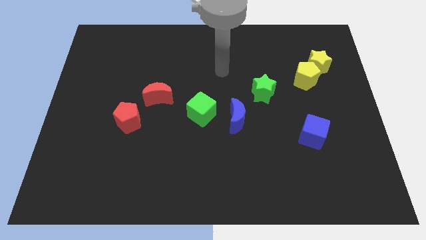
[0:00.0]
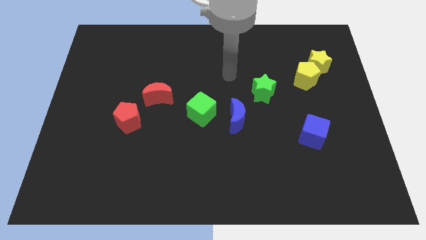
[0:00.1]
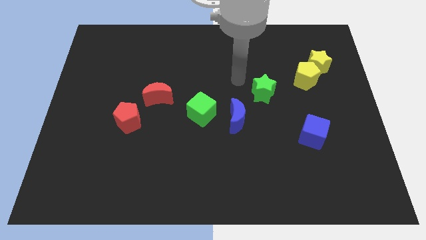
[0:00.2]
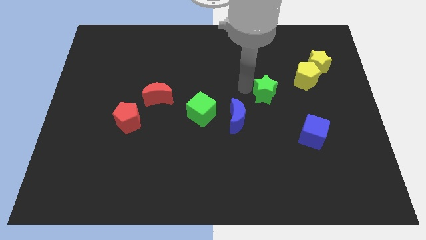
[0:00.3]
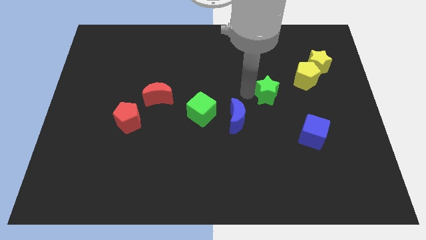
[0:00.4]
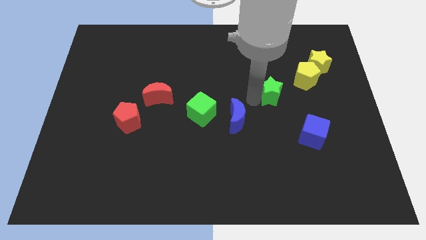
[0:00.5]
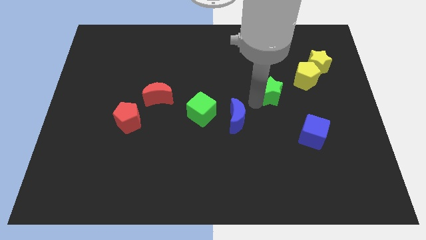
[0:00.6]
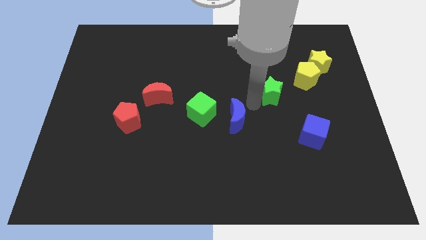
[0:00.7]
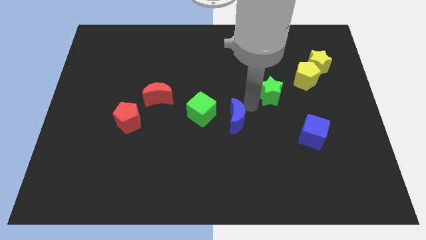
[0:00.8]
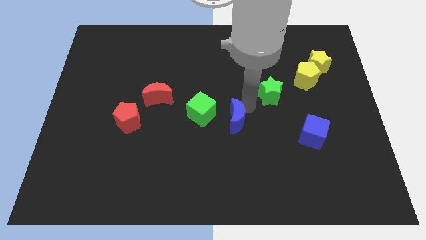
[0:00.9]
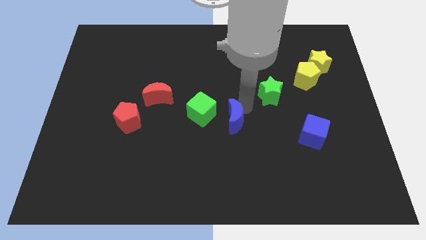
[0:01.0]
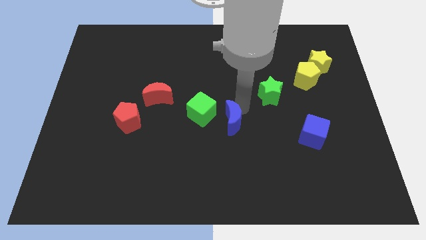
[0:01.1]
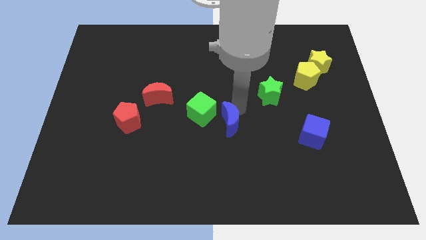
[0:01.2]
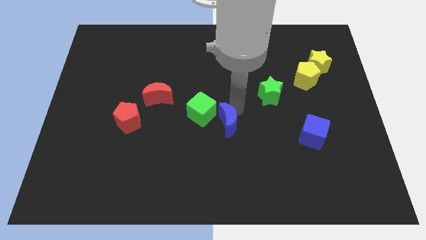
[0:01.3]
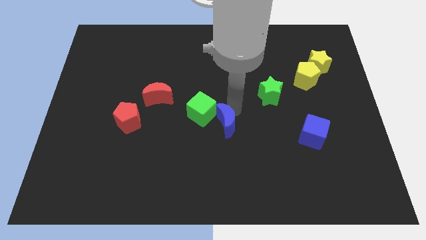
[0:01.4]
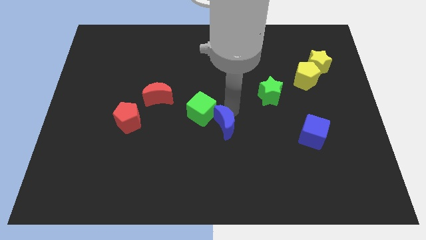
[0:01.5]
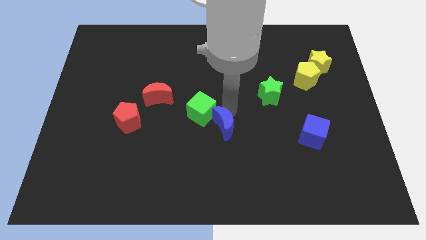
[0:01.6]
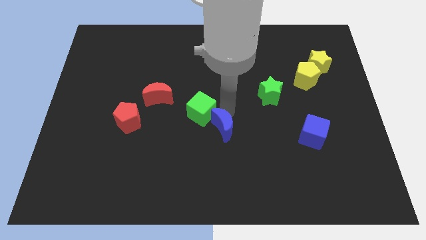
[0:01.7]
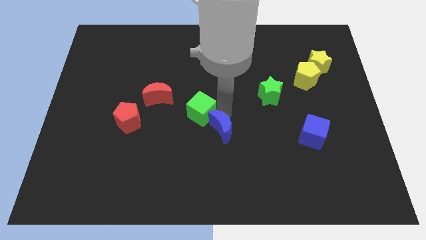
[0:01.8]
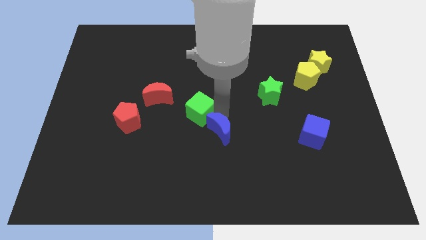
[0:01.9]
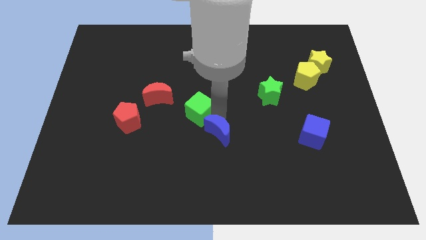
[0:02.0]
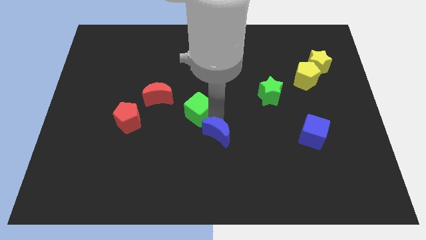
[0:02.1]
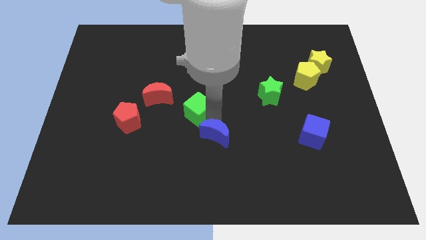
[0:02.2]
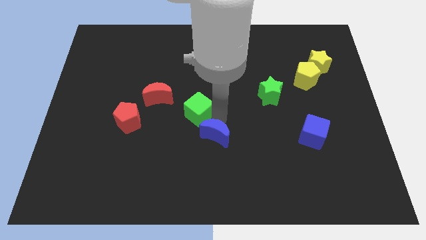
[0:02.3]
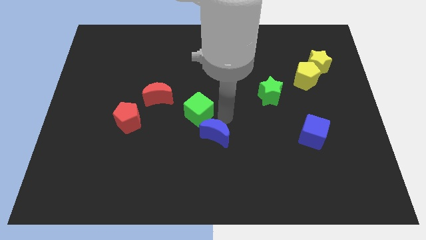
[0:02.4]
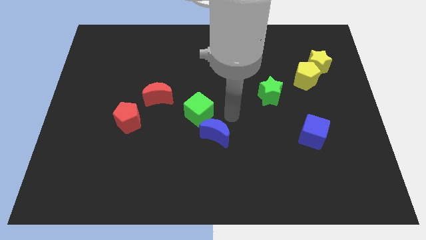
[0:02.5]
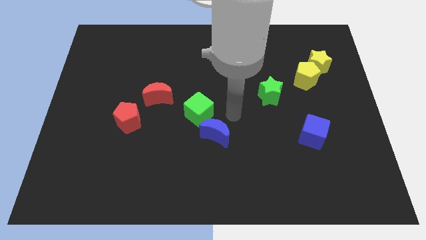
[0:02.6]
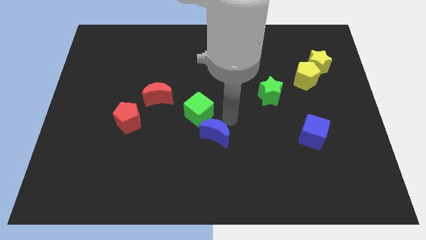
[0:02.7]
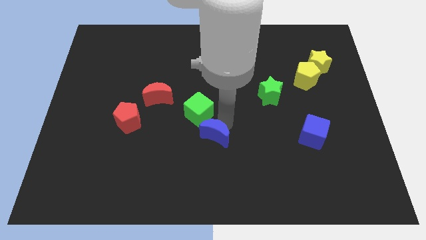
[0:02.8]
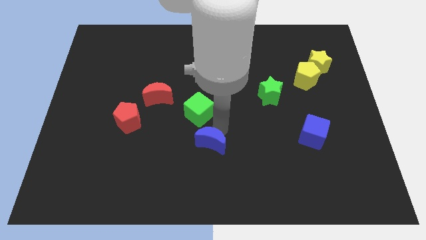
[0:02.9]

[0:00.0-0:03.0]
move the blue moon a little down and to the left

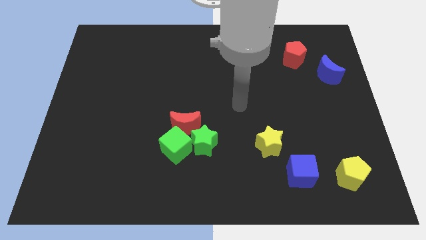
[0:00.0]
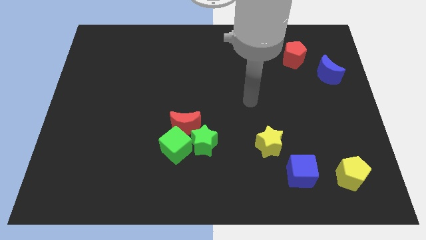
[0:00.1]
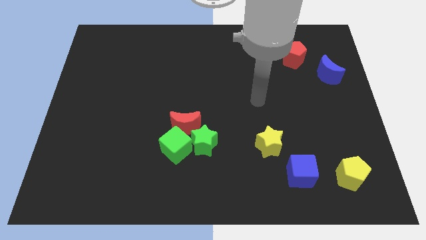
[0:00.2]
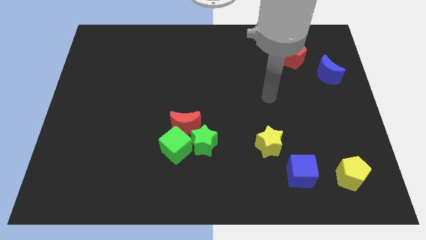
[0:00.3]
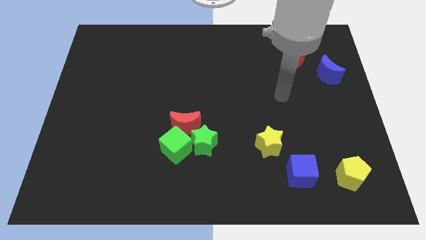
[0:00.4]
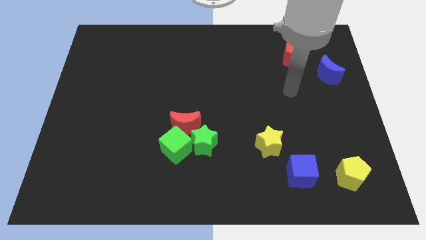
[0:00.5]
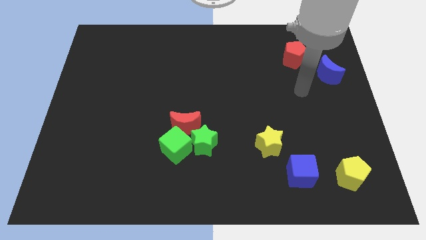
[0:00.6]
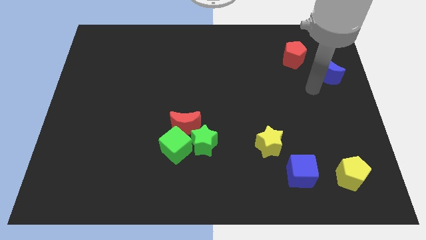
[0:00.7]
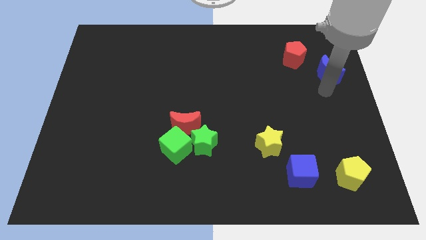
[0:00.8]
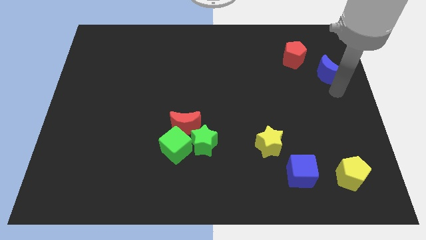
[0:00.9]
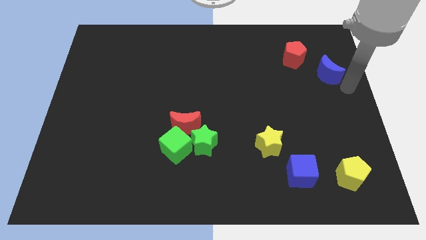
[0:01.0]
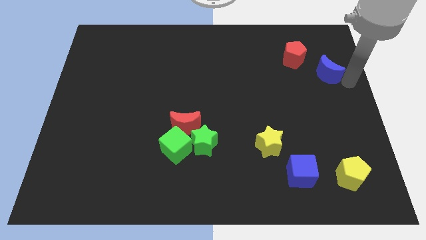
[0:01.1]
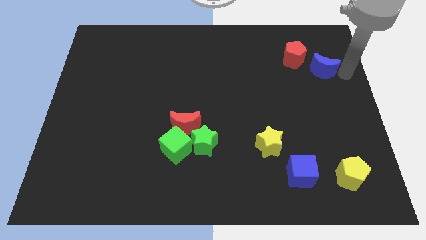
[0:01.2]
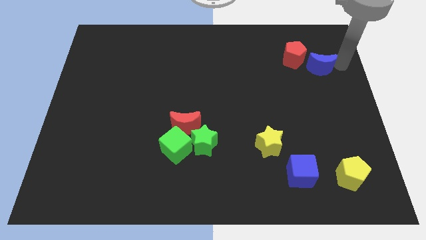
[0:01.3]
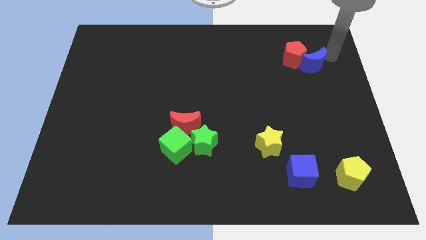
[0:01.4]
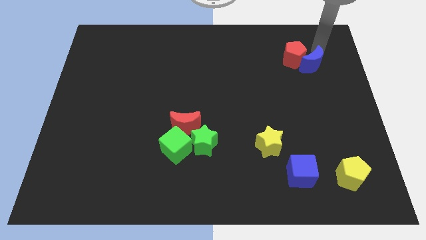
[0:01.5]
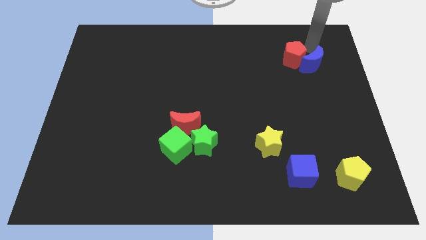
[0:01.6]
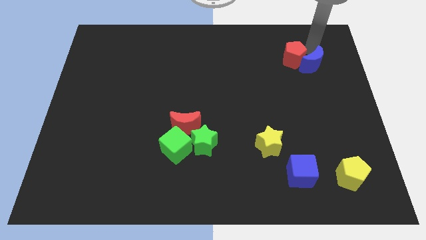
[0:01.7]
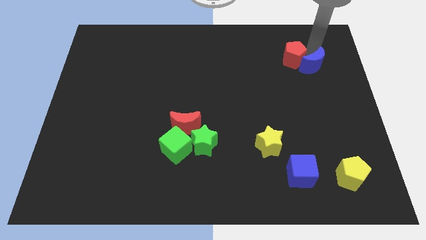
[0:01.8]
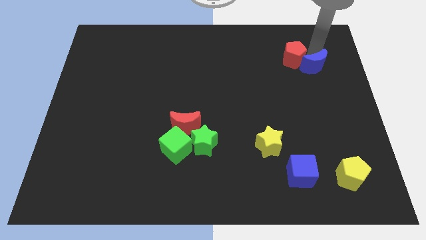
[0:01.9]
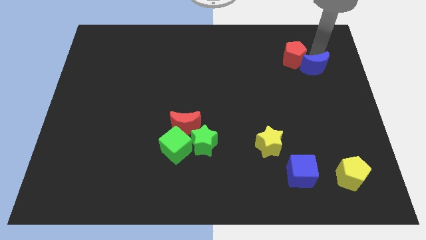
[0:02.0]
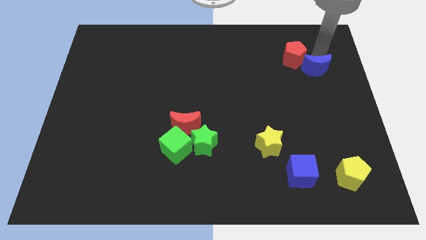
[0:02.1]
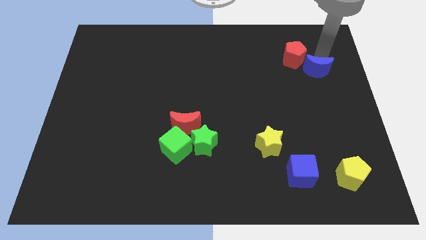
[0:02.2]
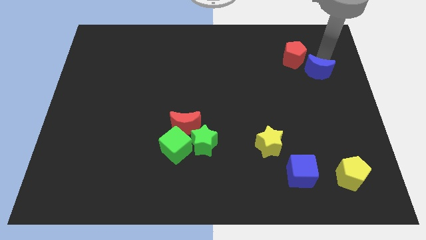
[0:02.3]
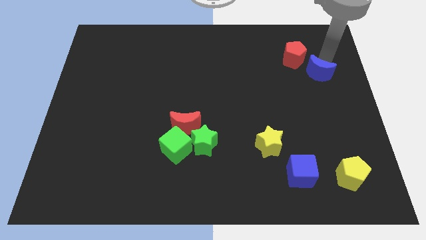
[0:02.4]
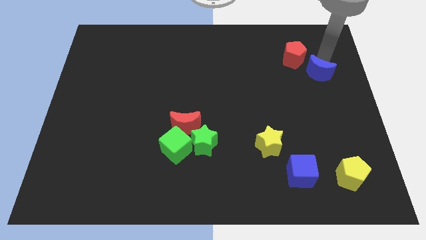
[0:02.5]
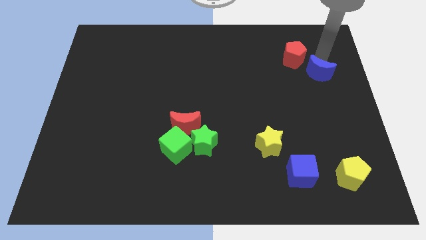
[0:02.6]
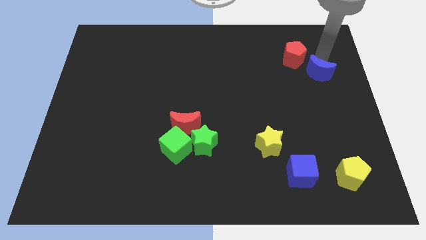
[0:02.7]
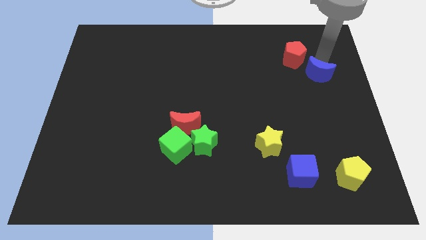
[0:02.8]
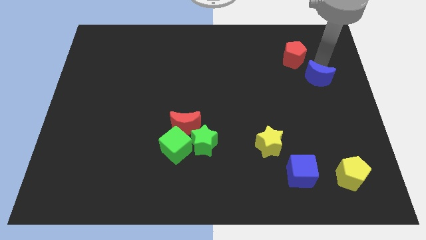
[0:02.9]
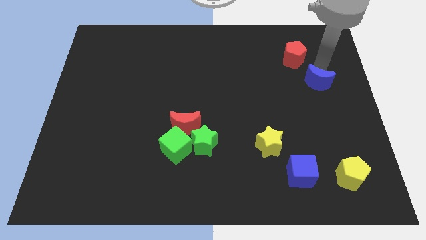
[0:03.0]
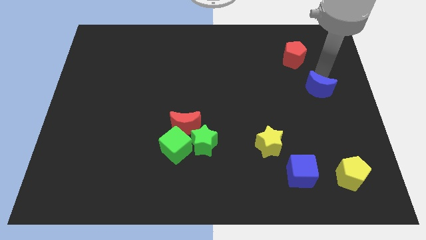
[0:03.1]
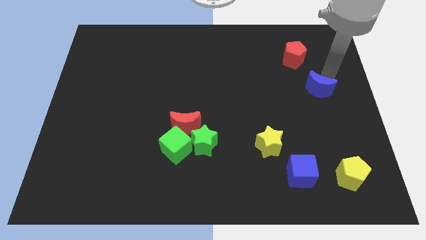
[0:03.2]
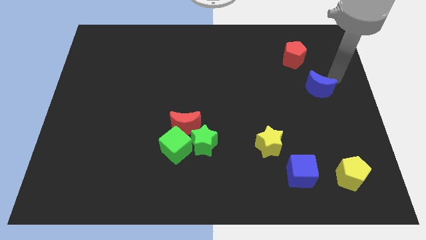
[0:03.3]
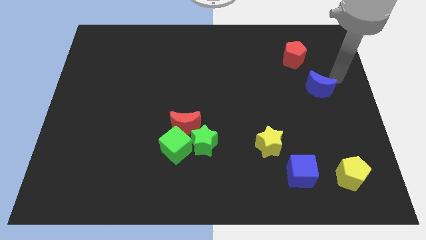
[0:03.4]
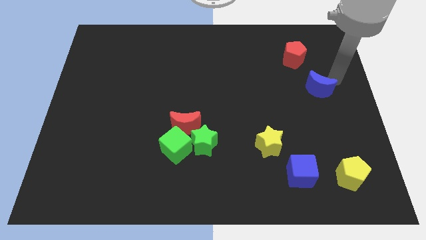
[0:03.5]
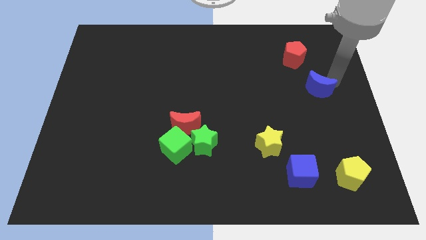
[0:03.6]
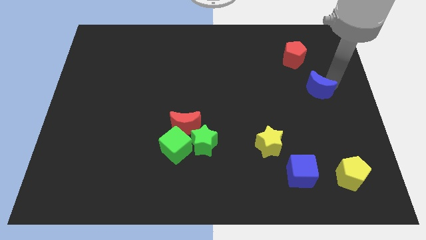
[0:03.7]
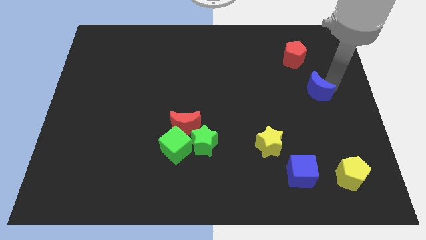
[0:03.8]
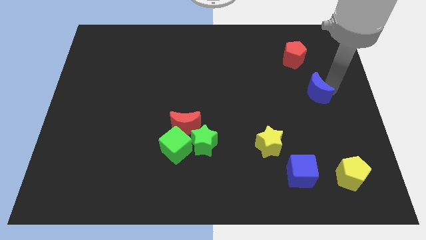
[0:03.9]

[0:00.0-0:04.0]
push the blue moon slightly down and left

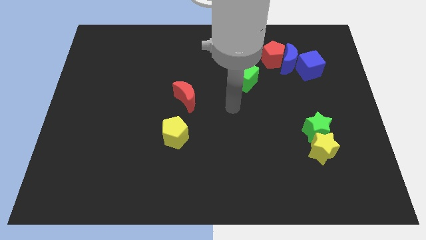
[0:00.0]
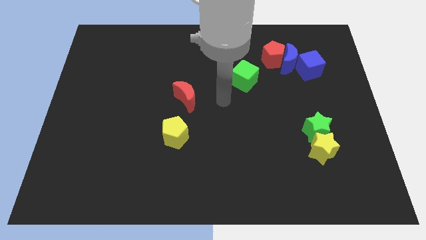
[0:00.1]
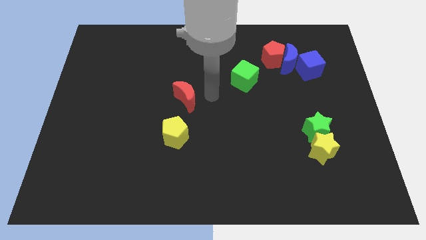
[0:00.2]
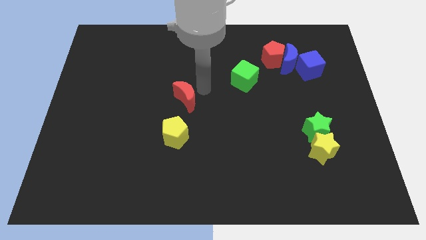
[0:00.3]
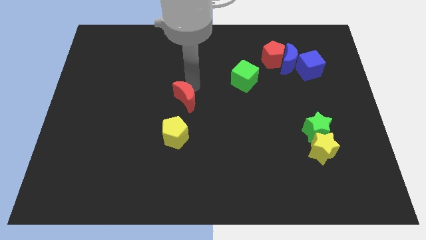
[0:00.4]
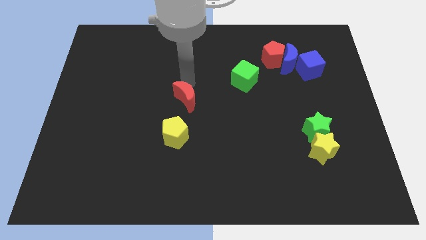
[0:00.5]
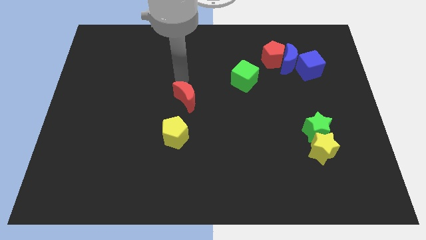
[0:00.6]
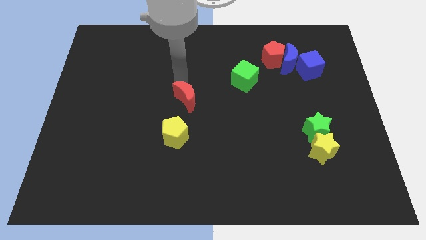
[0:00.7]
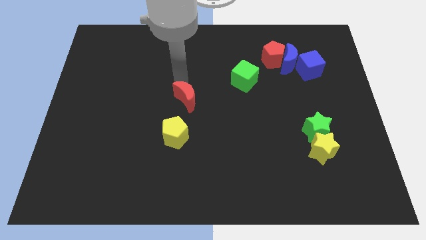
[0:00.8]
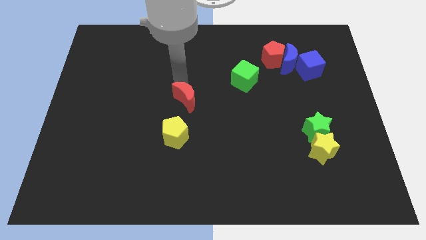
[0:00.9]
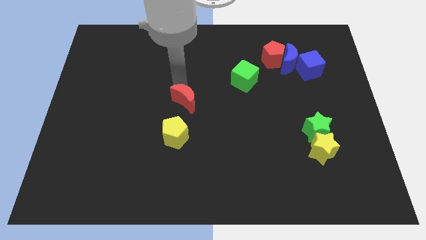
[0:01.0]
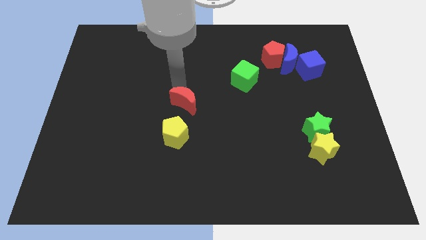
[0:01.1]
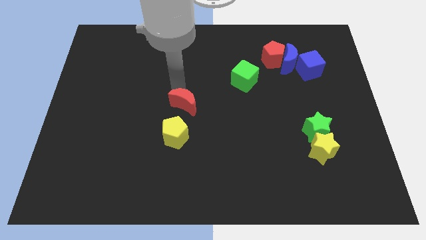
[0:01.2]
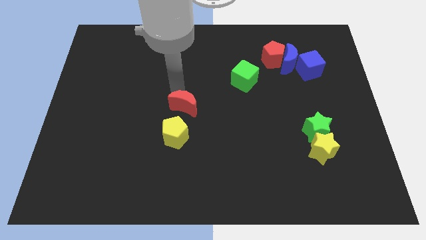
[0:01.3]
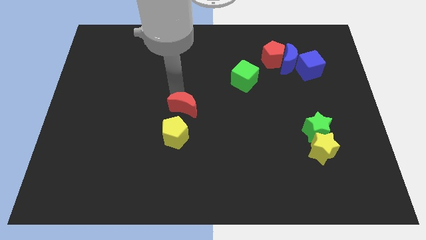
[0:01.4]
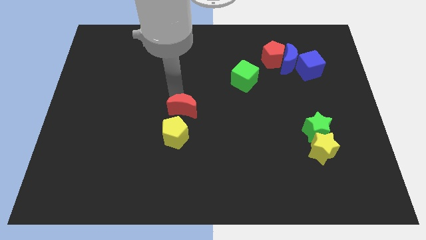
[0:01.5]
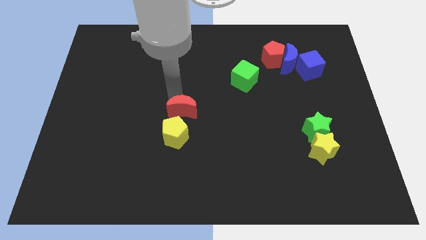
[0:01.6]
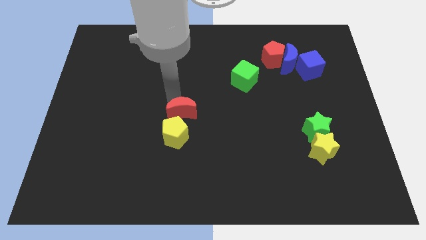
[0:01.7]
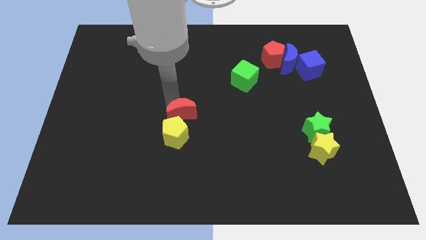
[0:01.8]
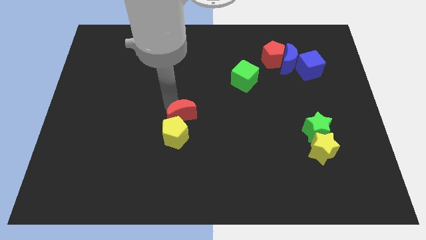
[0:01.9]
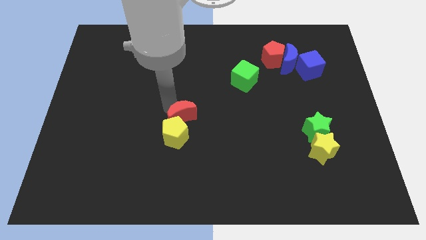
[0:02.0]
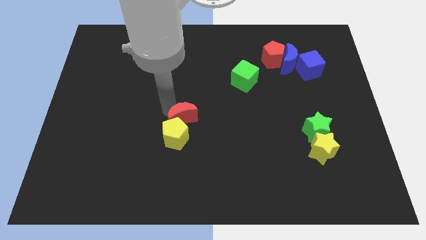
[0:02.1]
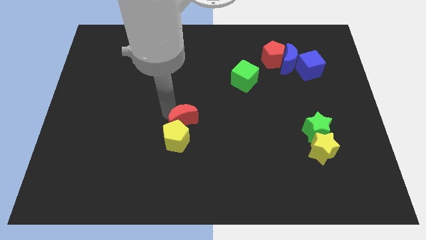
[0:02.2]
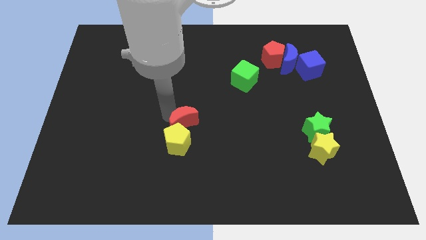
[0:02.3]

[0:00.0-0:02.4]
slightly move the red moon downwards
